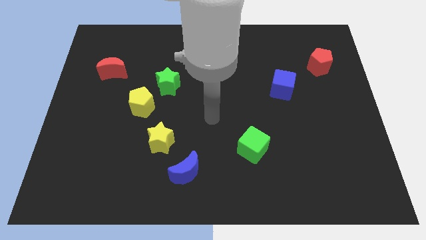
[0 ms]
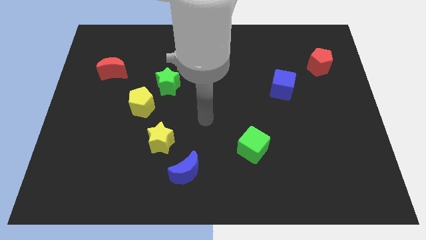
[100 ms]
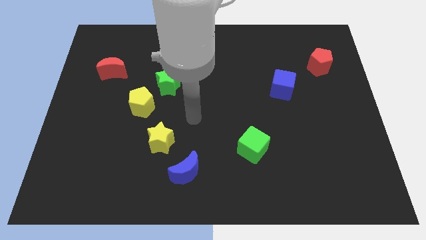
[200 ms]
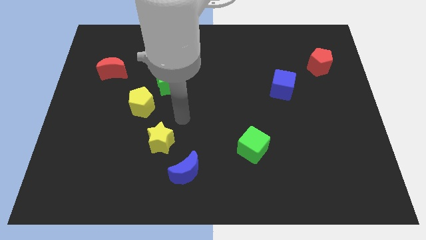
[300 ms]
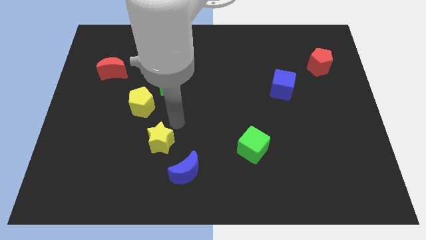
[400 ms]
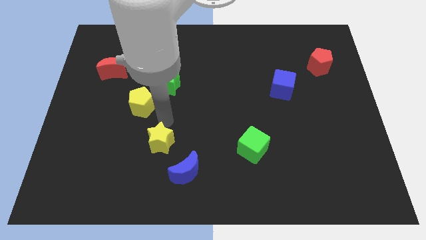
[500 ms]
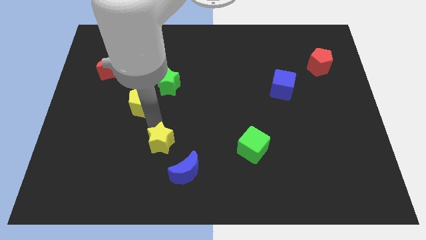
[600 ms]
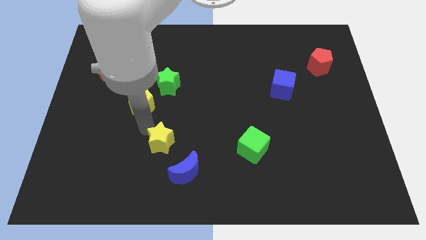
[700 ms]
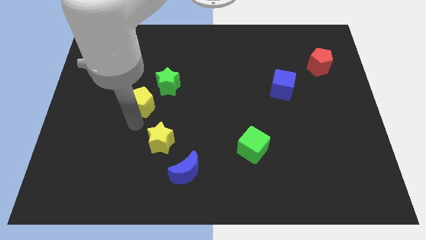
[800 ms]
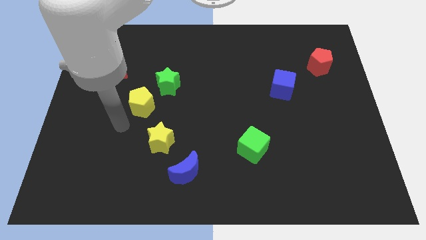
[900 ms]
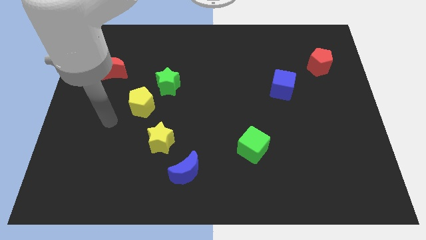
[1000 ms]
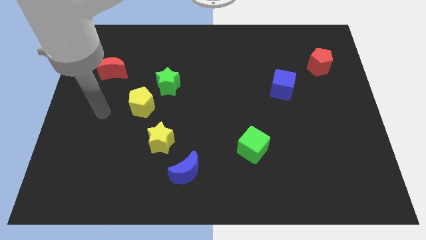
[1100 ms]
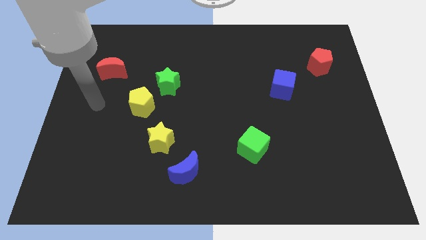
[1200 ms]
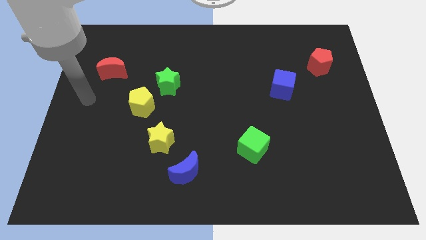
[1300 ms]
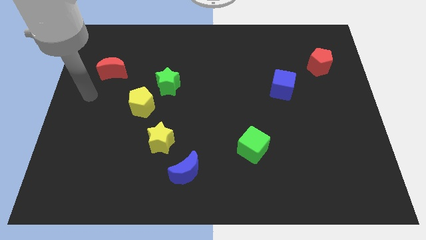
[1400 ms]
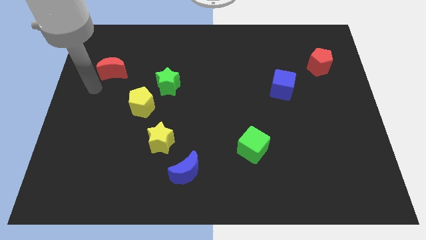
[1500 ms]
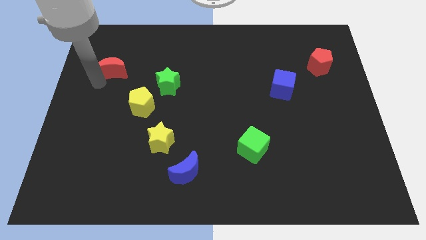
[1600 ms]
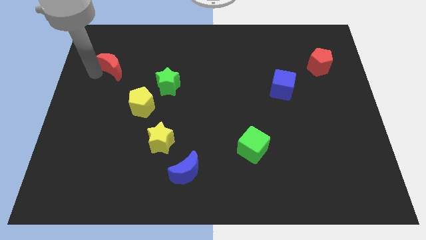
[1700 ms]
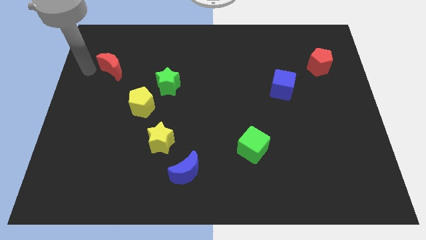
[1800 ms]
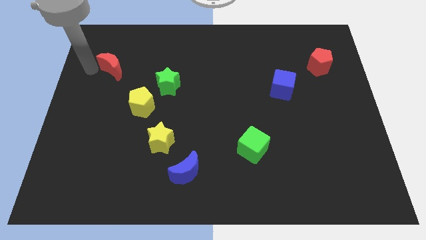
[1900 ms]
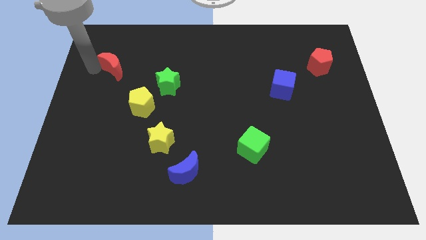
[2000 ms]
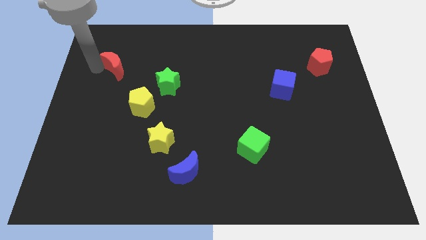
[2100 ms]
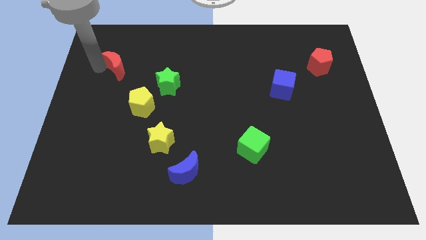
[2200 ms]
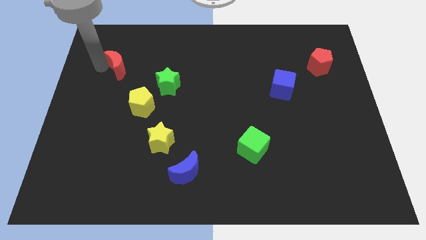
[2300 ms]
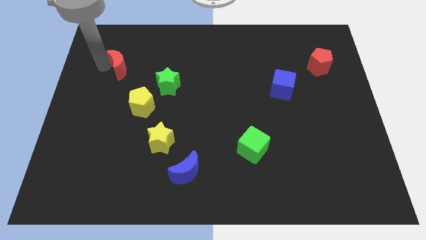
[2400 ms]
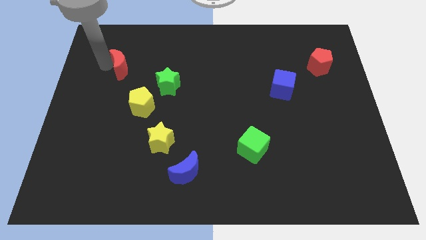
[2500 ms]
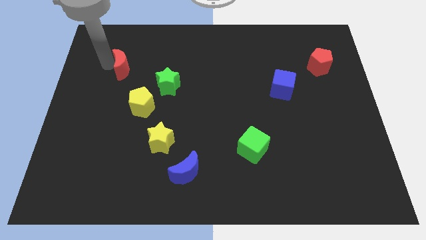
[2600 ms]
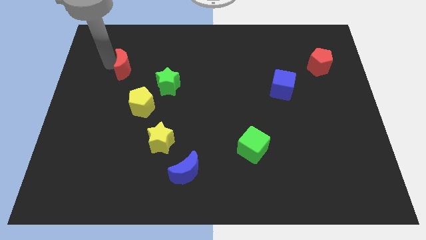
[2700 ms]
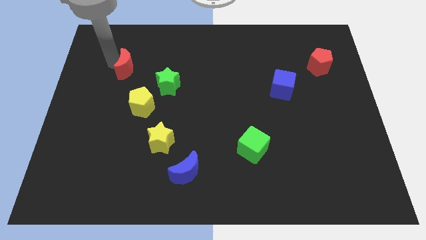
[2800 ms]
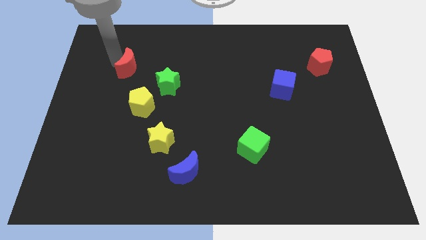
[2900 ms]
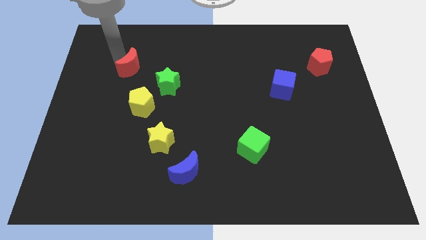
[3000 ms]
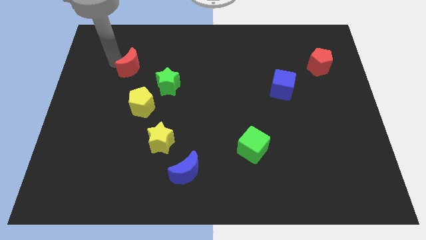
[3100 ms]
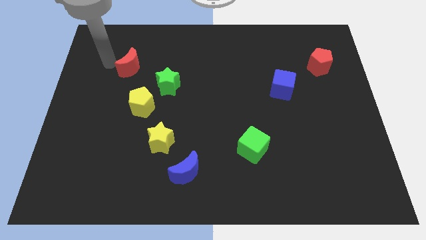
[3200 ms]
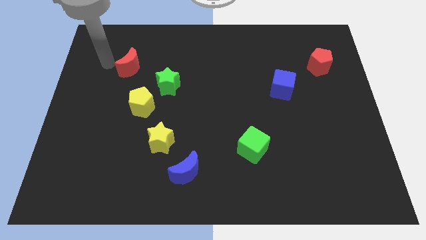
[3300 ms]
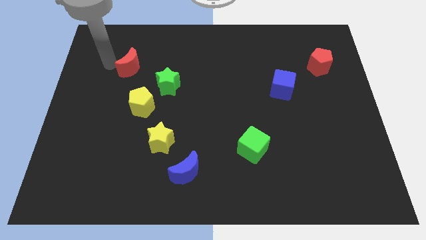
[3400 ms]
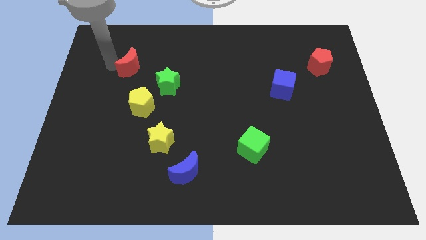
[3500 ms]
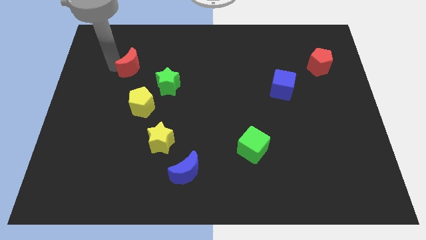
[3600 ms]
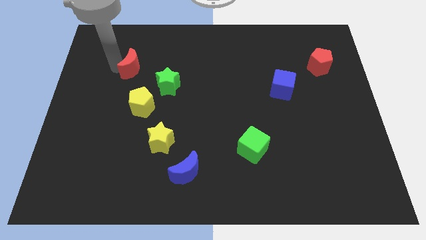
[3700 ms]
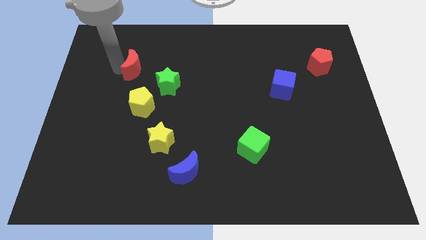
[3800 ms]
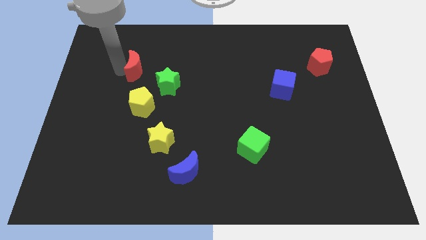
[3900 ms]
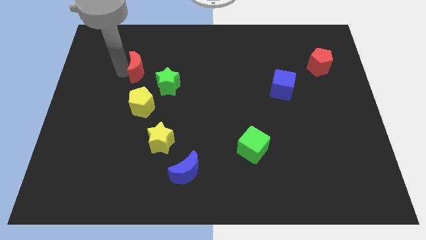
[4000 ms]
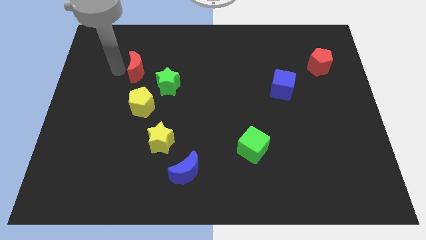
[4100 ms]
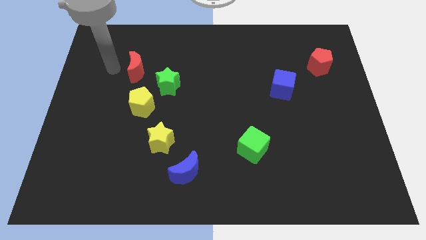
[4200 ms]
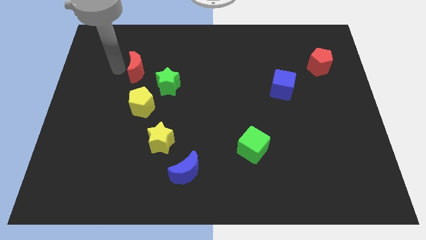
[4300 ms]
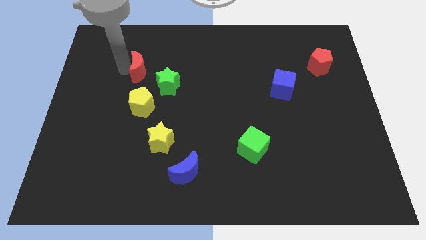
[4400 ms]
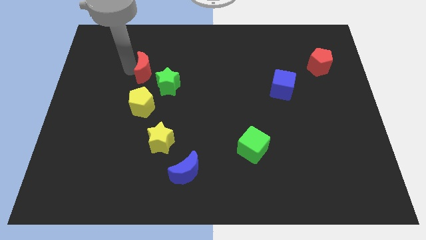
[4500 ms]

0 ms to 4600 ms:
slightly slide the red moon to the right

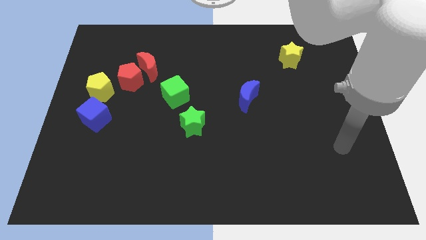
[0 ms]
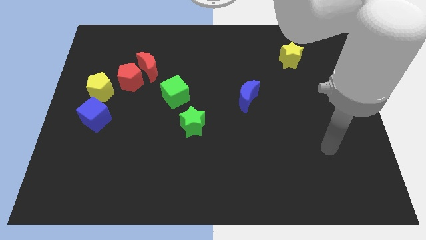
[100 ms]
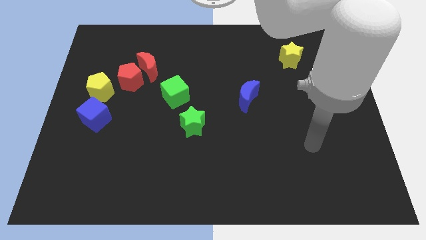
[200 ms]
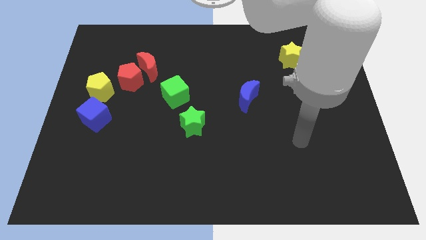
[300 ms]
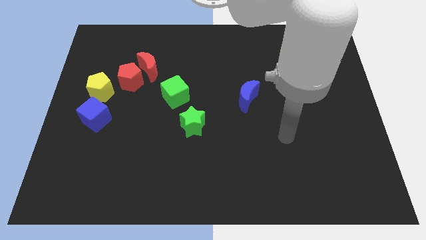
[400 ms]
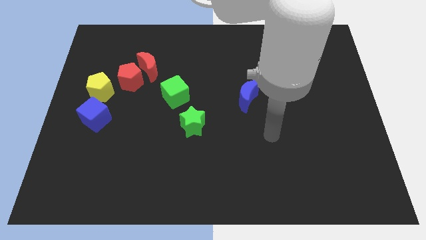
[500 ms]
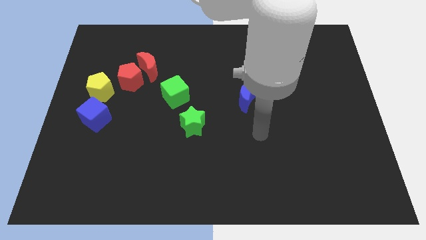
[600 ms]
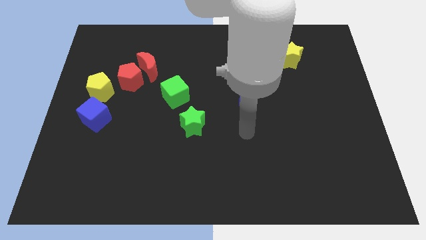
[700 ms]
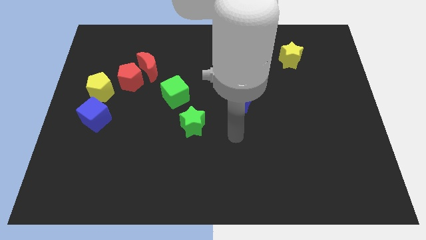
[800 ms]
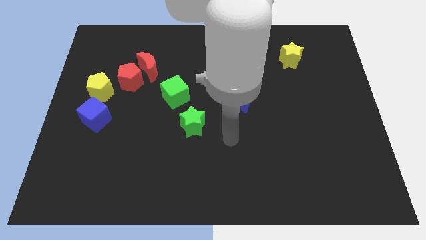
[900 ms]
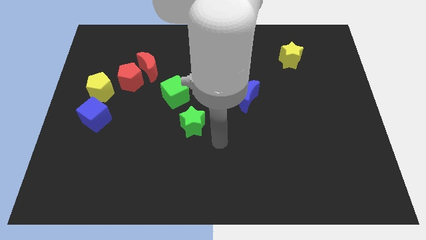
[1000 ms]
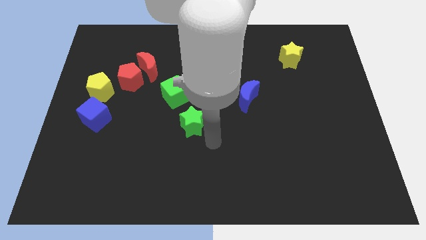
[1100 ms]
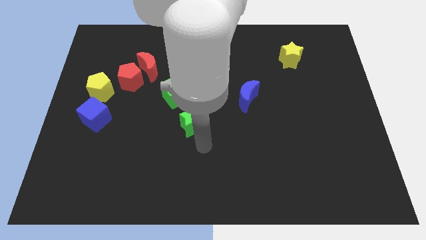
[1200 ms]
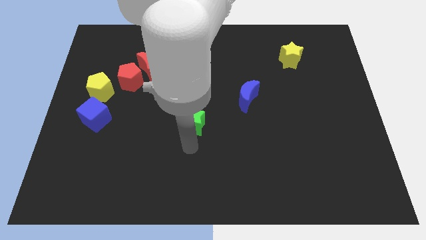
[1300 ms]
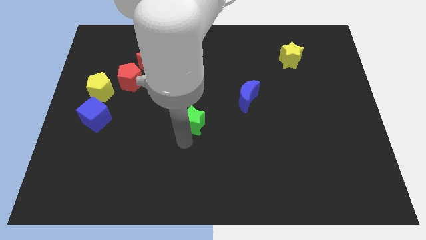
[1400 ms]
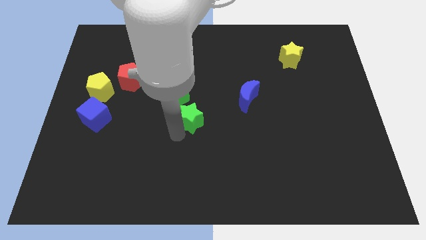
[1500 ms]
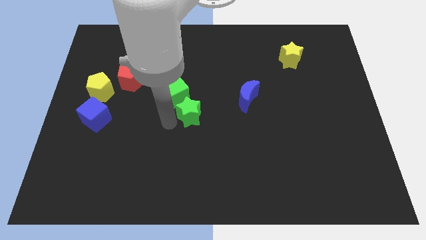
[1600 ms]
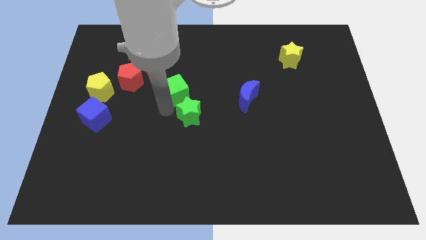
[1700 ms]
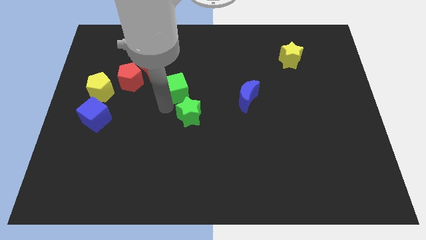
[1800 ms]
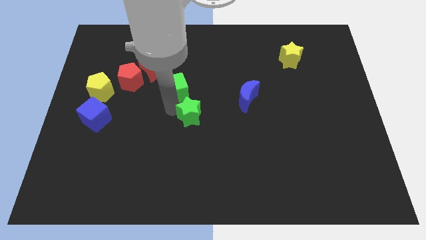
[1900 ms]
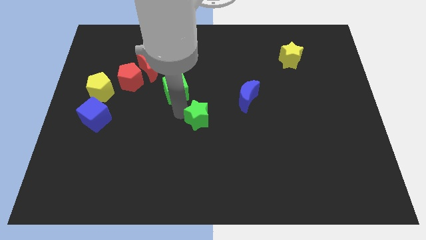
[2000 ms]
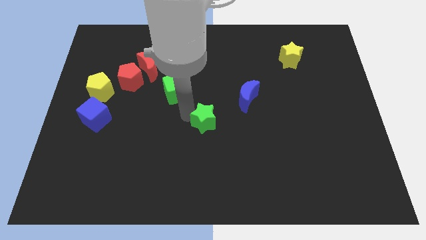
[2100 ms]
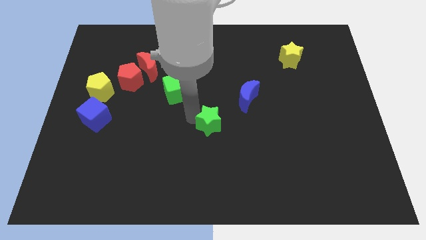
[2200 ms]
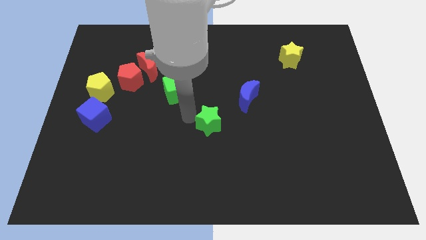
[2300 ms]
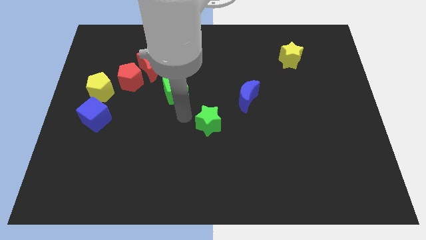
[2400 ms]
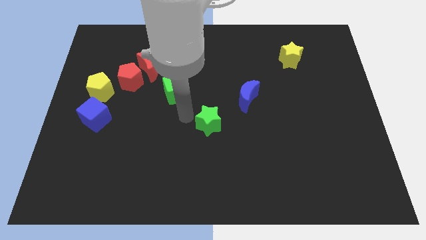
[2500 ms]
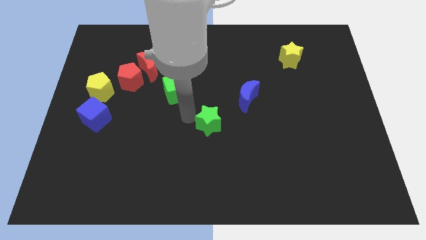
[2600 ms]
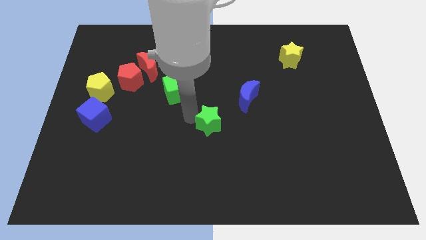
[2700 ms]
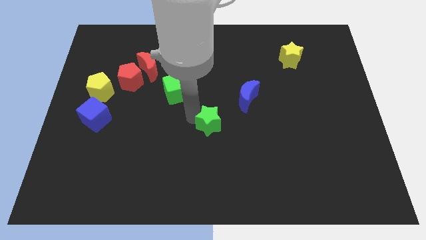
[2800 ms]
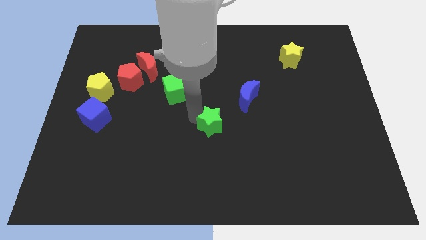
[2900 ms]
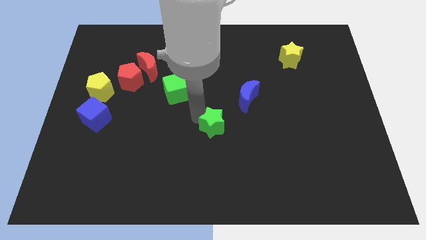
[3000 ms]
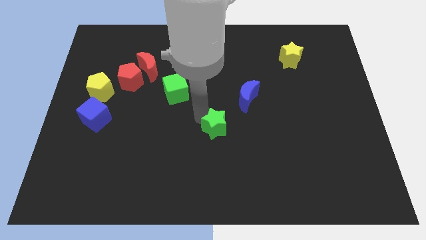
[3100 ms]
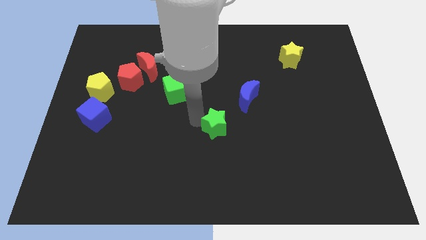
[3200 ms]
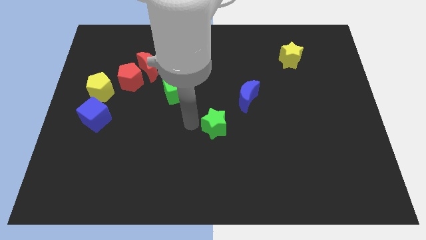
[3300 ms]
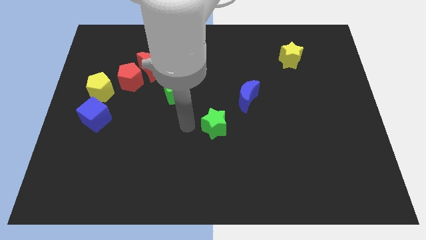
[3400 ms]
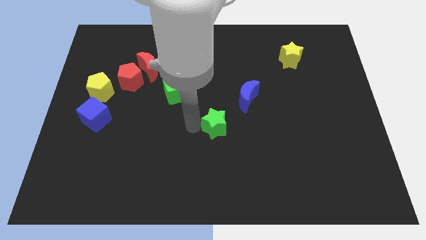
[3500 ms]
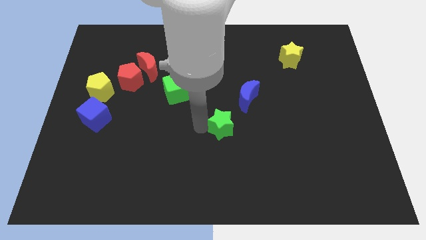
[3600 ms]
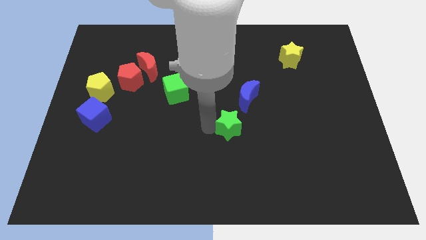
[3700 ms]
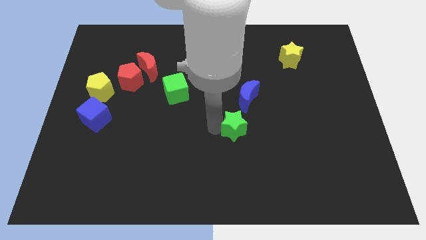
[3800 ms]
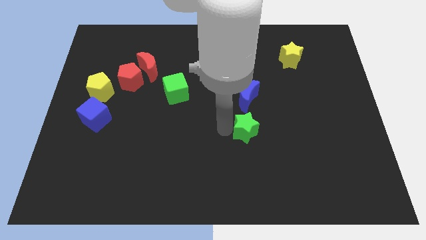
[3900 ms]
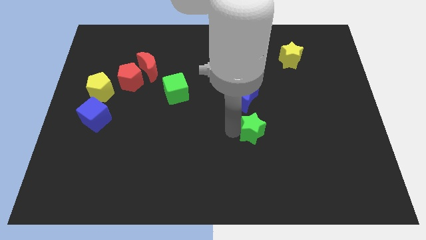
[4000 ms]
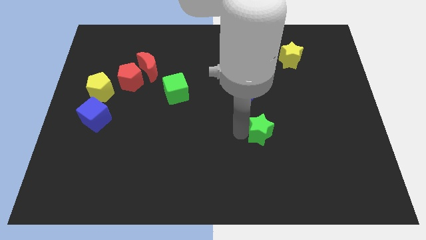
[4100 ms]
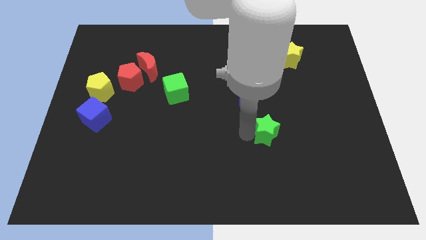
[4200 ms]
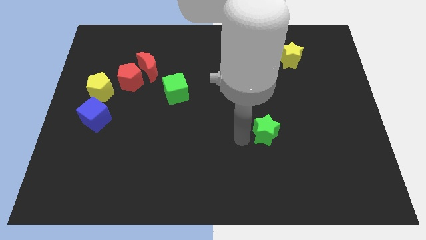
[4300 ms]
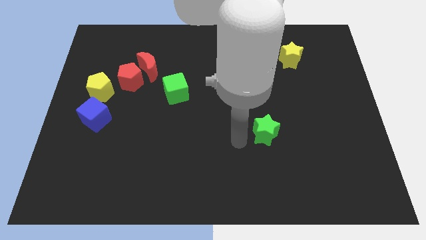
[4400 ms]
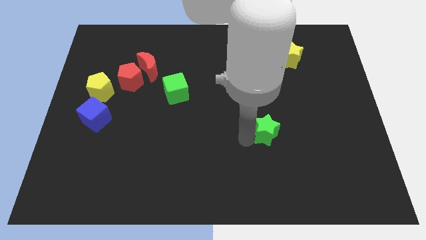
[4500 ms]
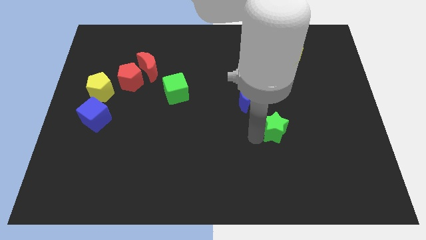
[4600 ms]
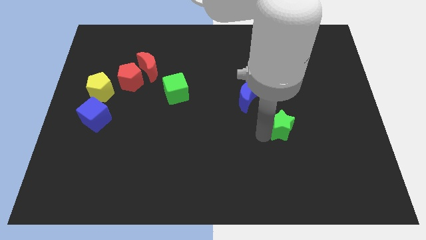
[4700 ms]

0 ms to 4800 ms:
push the green star to the right
